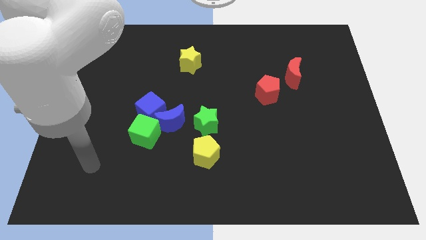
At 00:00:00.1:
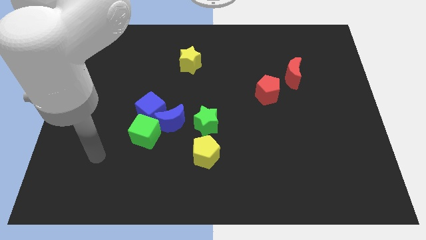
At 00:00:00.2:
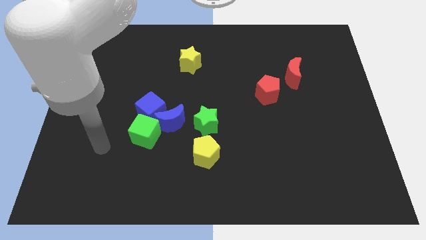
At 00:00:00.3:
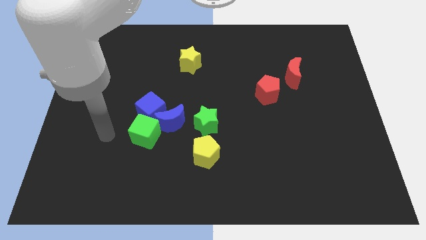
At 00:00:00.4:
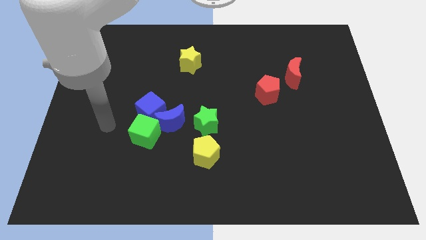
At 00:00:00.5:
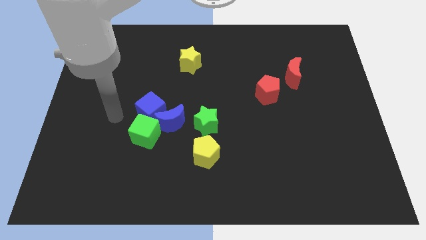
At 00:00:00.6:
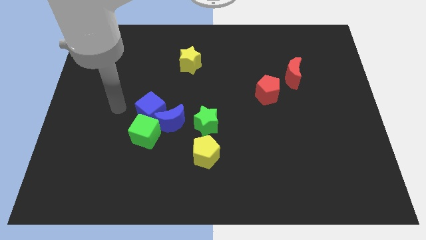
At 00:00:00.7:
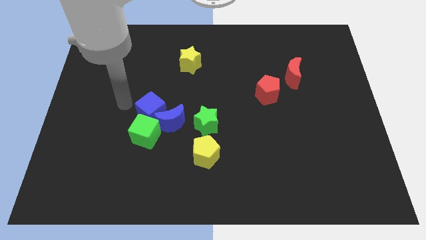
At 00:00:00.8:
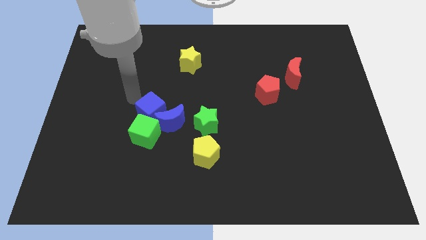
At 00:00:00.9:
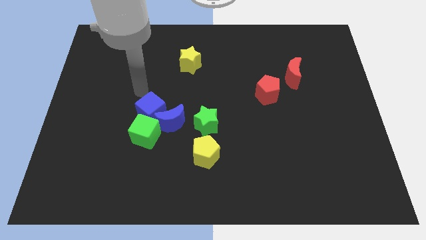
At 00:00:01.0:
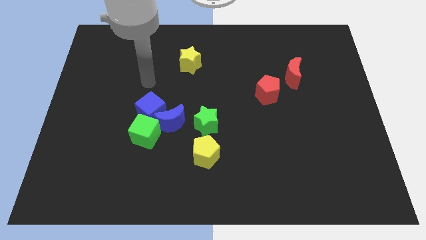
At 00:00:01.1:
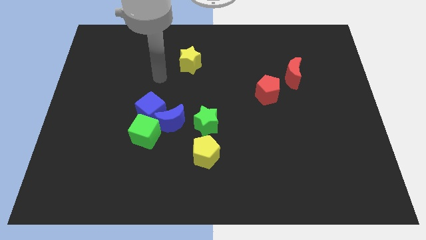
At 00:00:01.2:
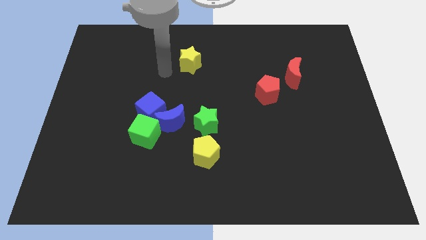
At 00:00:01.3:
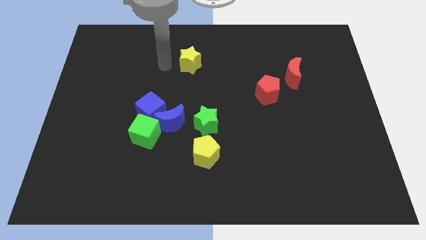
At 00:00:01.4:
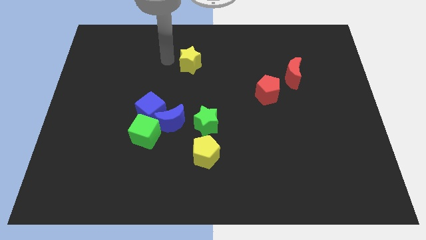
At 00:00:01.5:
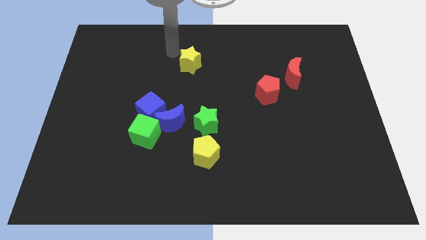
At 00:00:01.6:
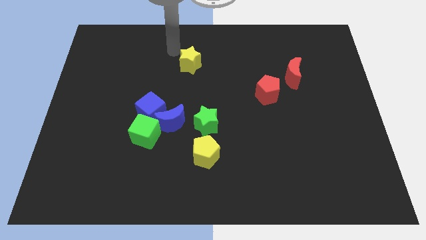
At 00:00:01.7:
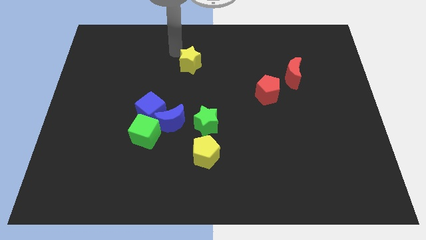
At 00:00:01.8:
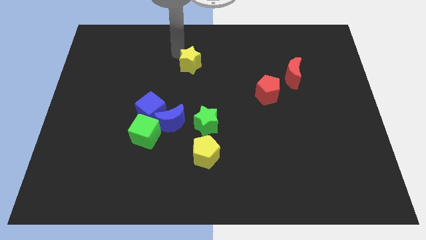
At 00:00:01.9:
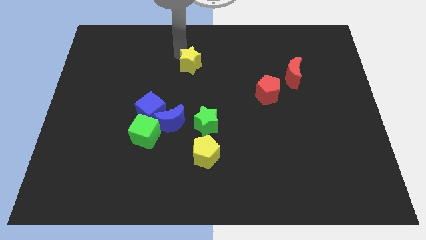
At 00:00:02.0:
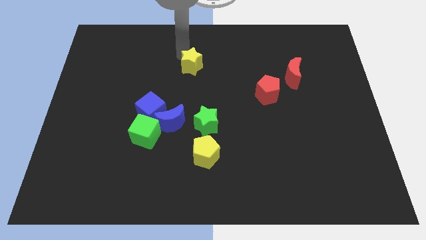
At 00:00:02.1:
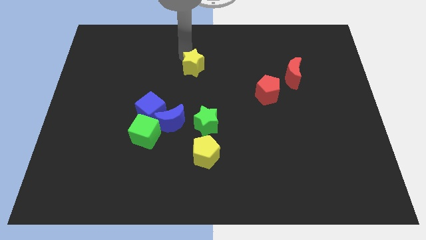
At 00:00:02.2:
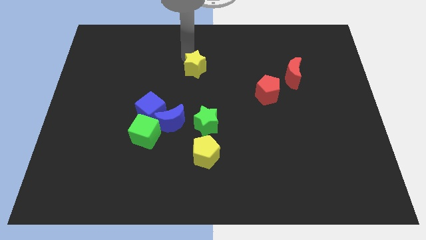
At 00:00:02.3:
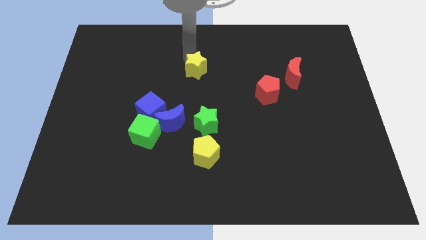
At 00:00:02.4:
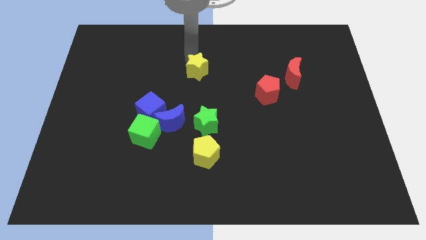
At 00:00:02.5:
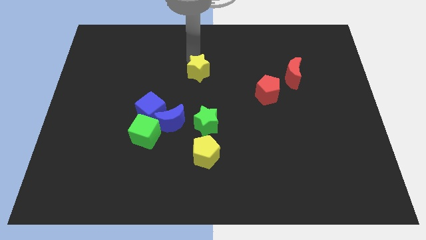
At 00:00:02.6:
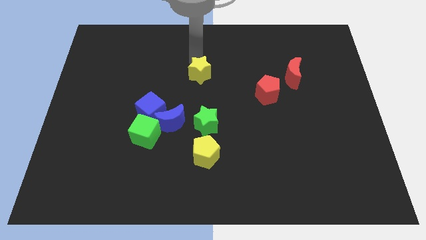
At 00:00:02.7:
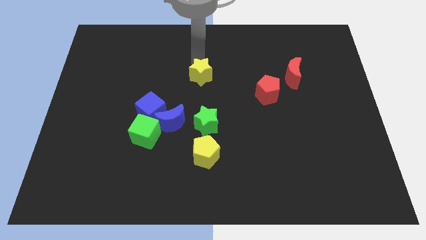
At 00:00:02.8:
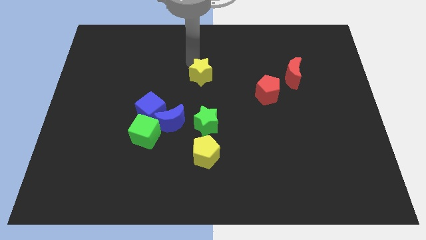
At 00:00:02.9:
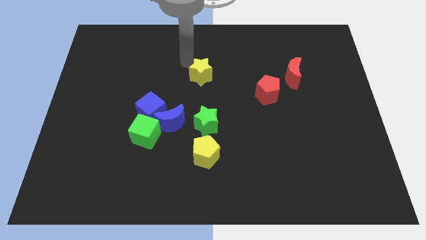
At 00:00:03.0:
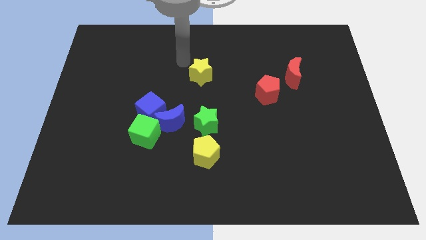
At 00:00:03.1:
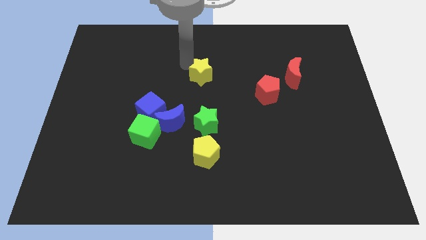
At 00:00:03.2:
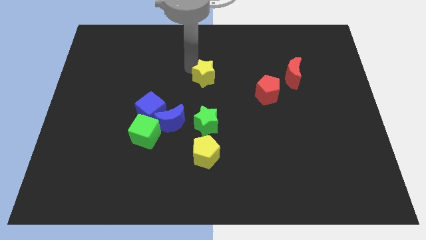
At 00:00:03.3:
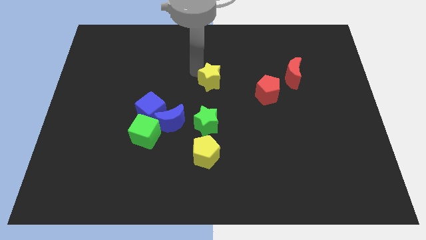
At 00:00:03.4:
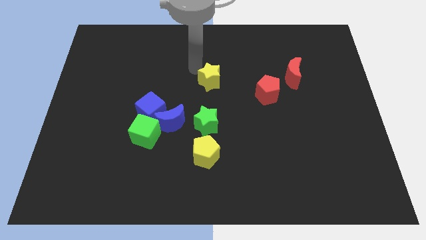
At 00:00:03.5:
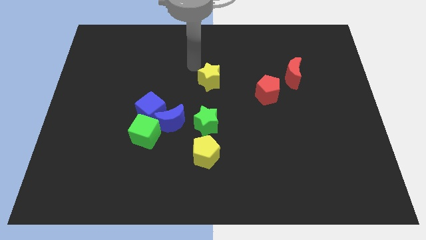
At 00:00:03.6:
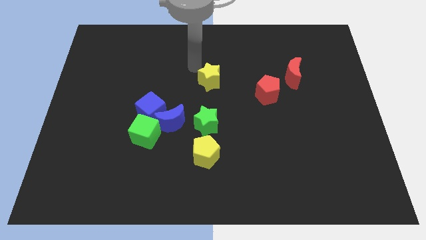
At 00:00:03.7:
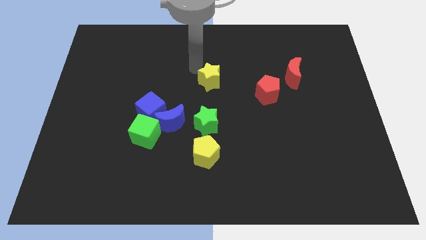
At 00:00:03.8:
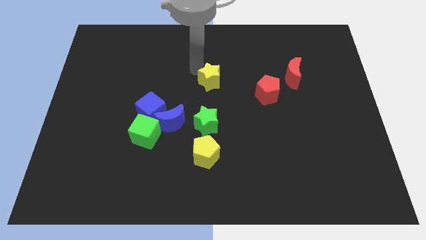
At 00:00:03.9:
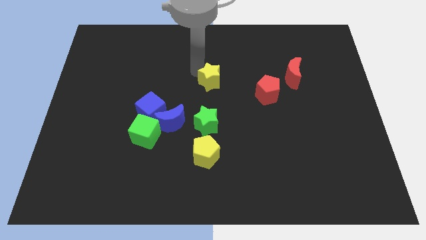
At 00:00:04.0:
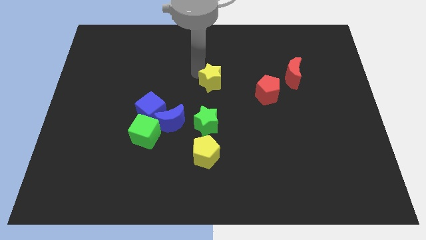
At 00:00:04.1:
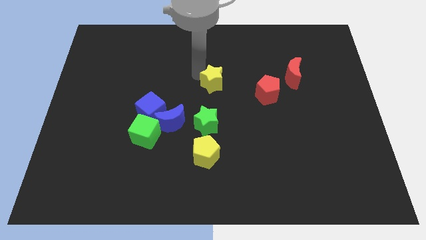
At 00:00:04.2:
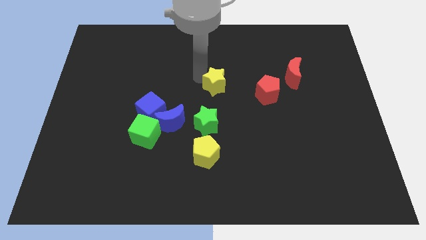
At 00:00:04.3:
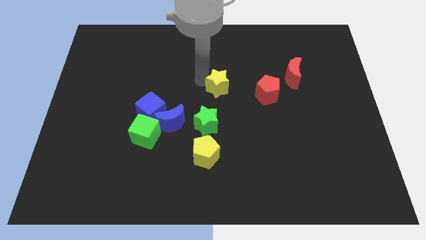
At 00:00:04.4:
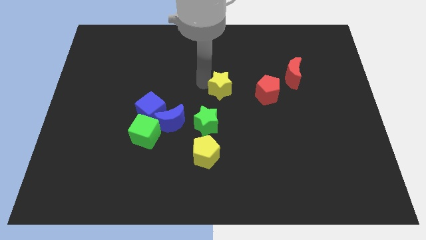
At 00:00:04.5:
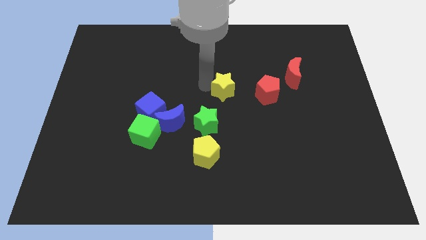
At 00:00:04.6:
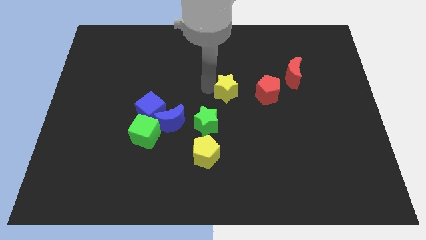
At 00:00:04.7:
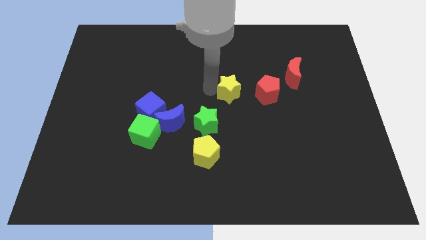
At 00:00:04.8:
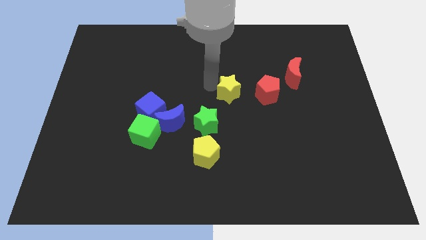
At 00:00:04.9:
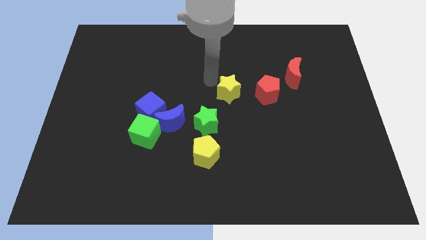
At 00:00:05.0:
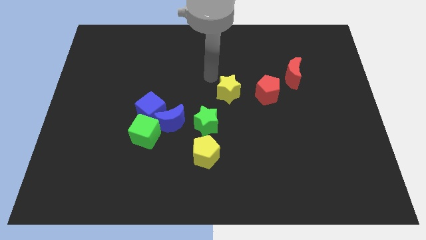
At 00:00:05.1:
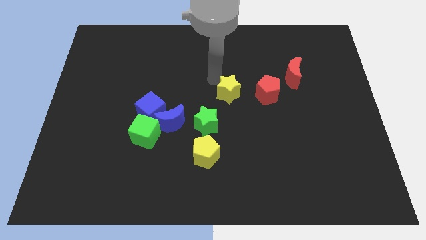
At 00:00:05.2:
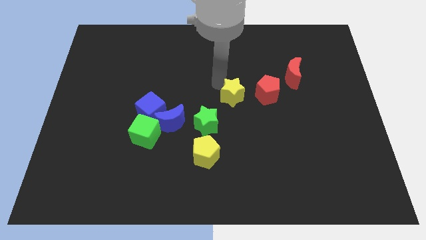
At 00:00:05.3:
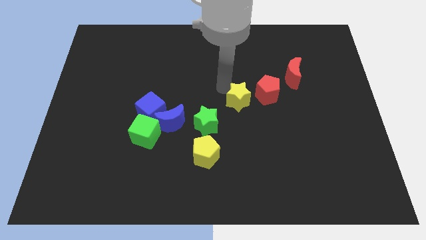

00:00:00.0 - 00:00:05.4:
put the yellow star diagonally down and to the left of the red pentagon

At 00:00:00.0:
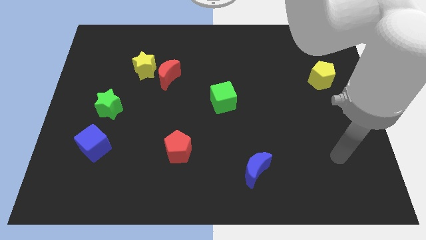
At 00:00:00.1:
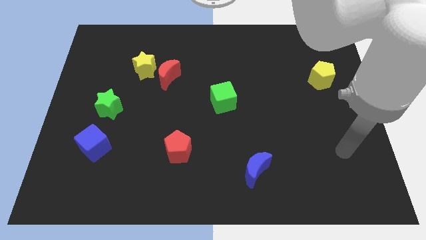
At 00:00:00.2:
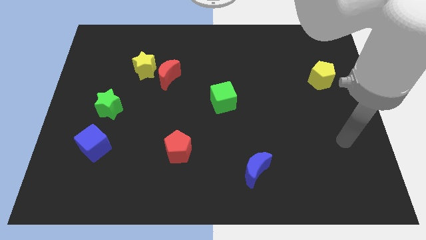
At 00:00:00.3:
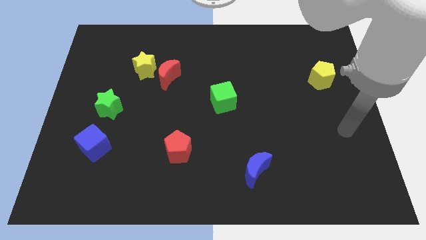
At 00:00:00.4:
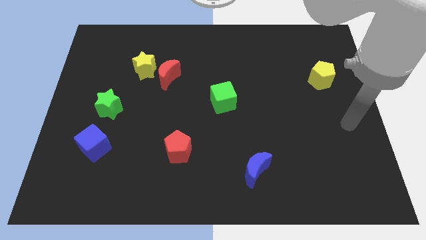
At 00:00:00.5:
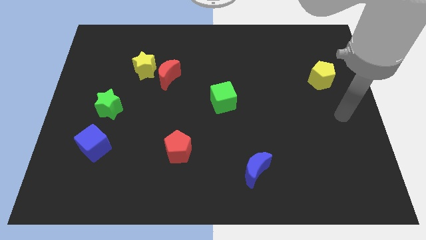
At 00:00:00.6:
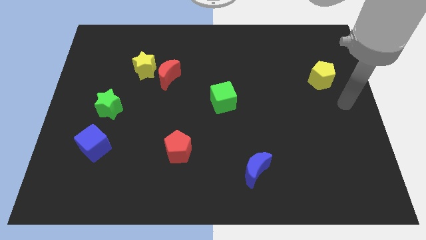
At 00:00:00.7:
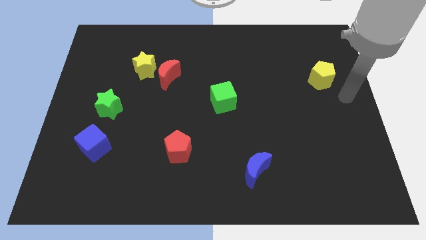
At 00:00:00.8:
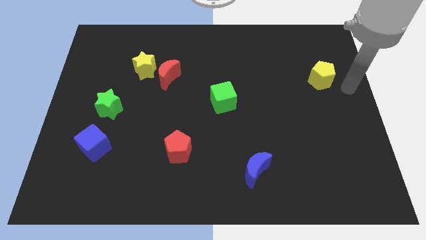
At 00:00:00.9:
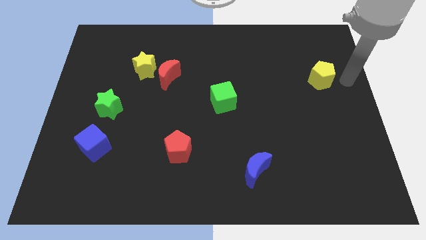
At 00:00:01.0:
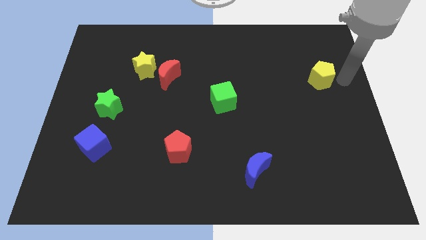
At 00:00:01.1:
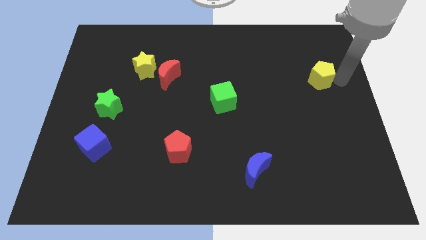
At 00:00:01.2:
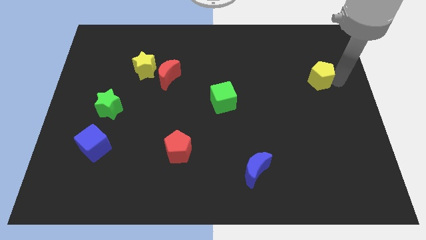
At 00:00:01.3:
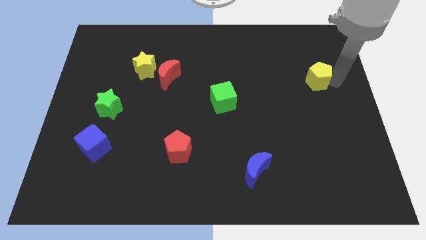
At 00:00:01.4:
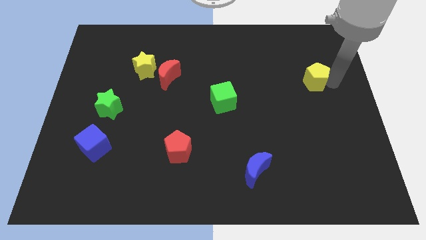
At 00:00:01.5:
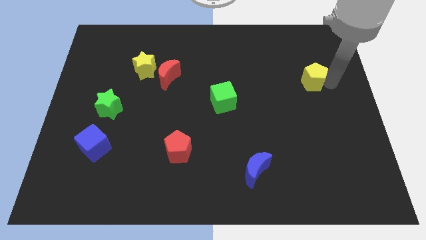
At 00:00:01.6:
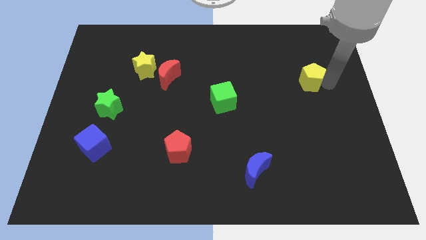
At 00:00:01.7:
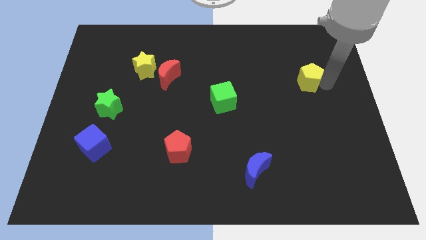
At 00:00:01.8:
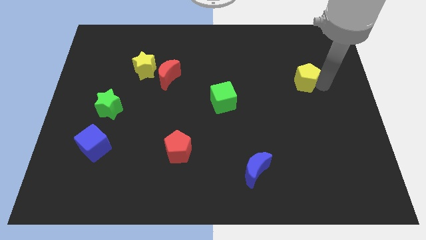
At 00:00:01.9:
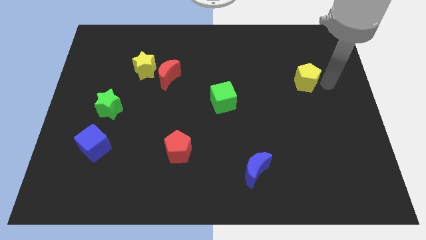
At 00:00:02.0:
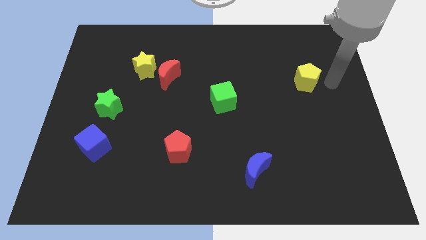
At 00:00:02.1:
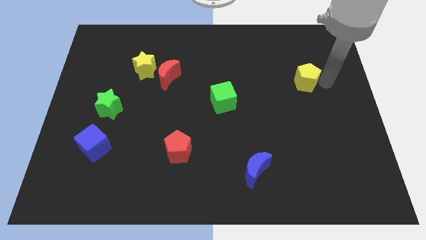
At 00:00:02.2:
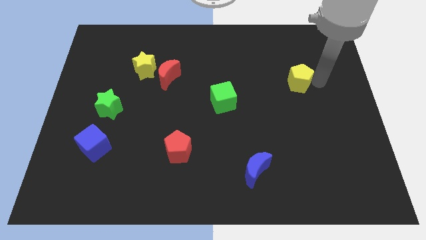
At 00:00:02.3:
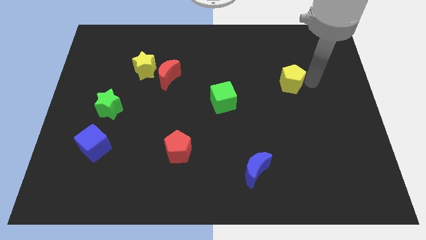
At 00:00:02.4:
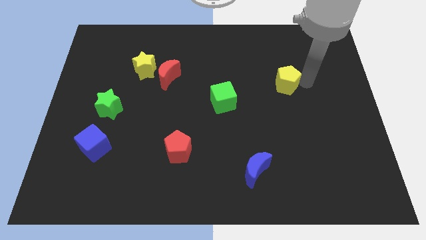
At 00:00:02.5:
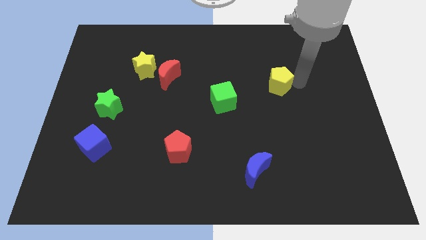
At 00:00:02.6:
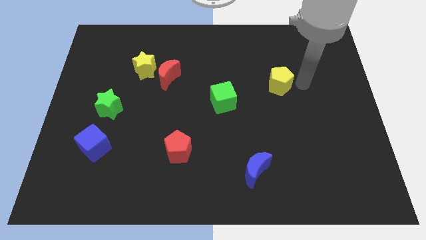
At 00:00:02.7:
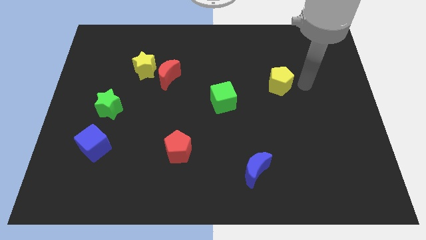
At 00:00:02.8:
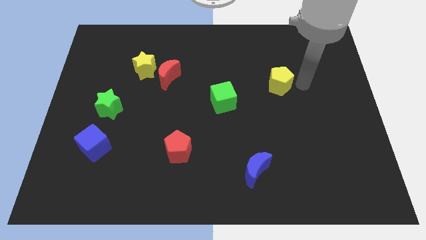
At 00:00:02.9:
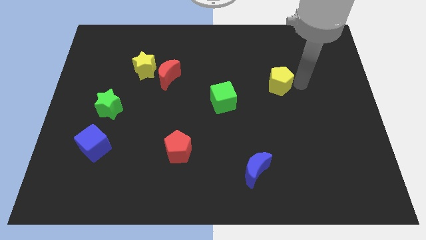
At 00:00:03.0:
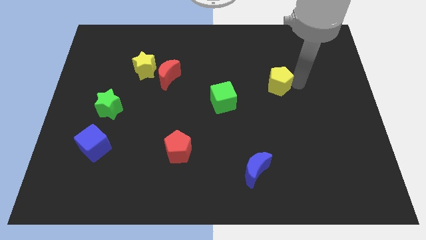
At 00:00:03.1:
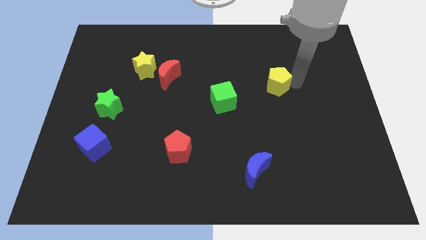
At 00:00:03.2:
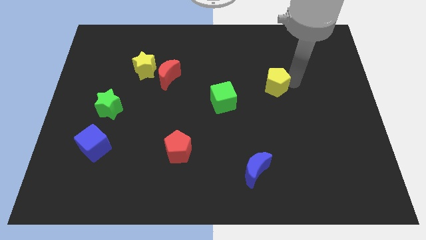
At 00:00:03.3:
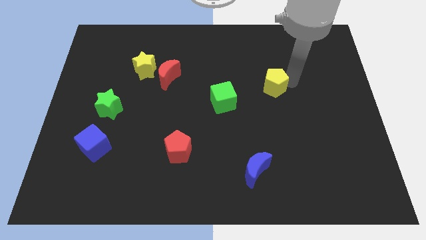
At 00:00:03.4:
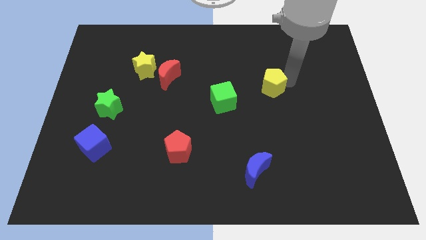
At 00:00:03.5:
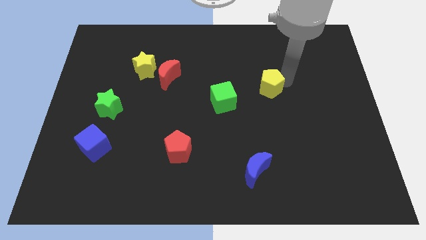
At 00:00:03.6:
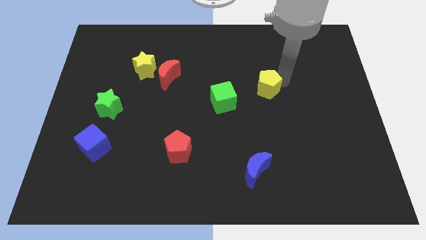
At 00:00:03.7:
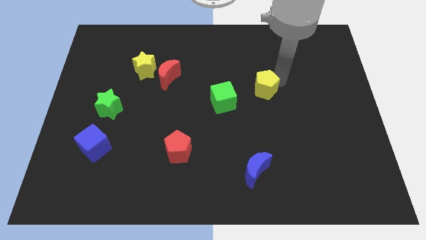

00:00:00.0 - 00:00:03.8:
move the yellow pentagon diagonally up and to the right of the green cube
